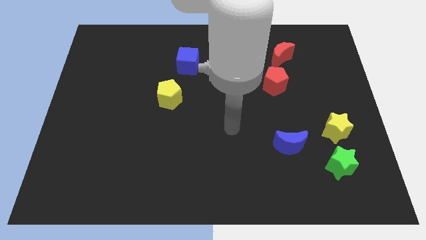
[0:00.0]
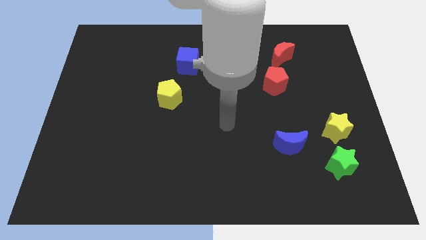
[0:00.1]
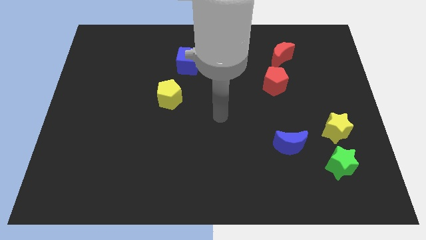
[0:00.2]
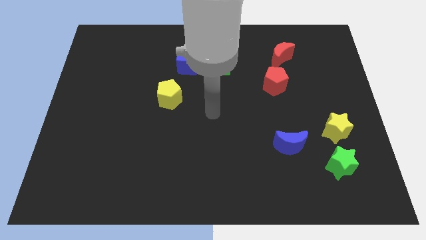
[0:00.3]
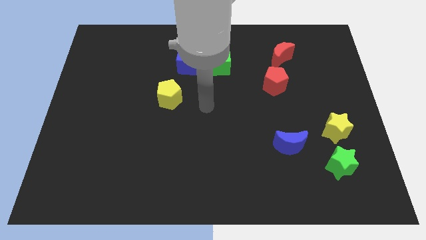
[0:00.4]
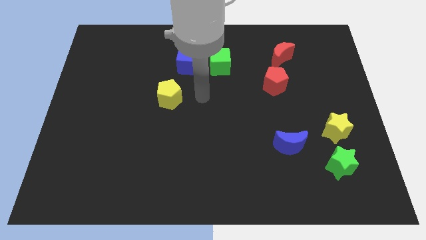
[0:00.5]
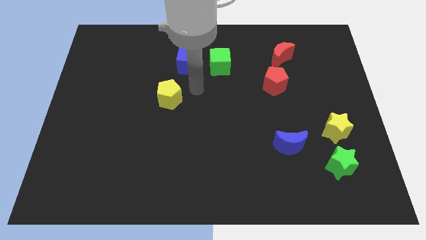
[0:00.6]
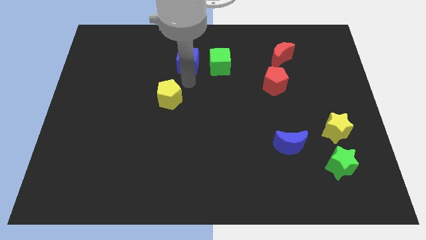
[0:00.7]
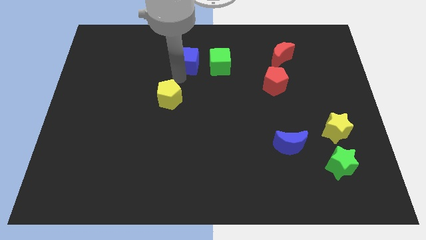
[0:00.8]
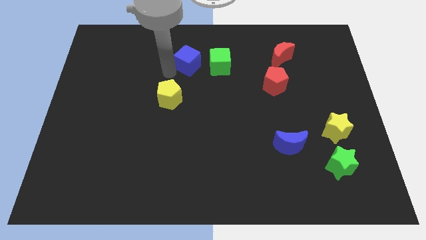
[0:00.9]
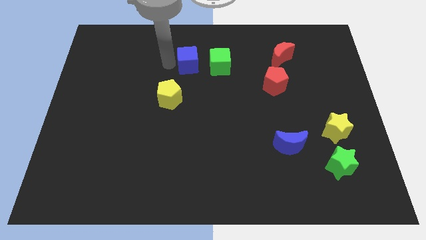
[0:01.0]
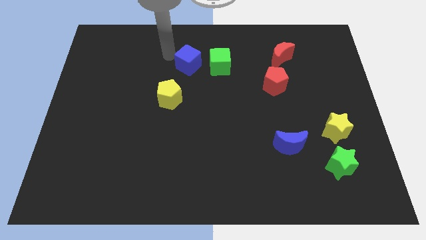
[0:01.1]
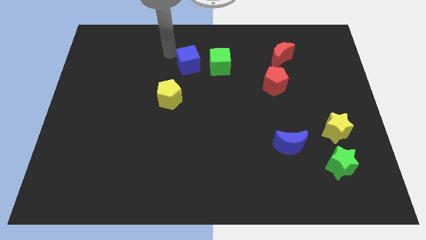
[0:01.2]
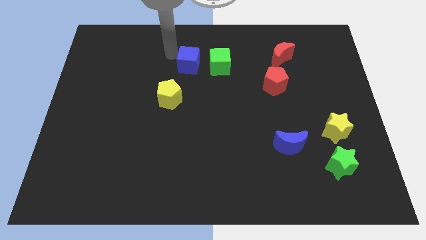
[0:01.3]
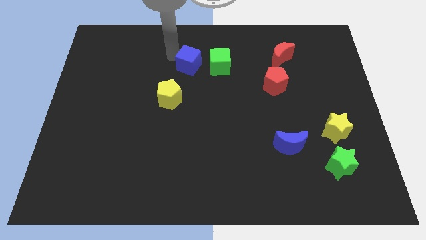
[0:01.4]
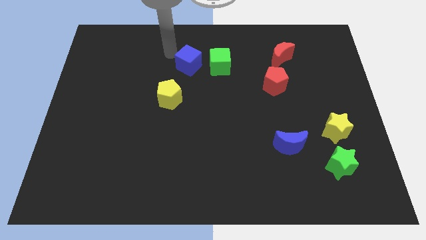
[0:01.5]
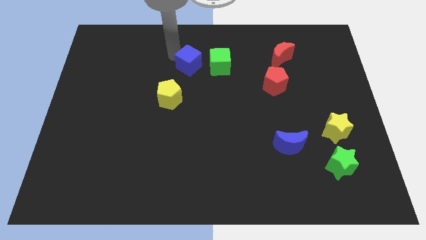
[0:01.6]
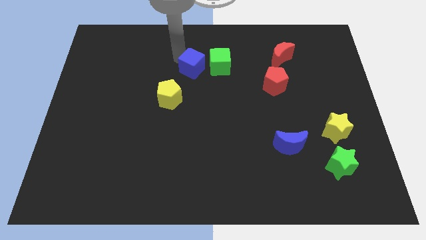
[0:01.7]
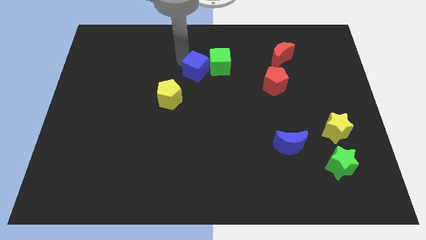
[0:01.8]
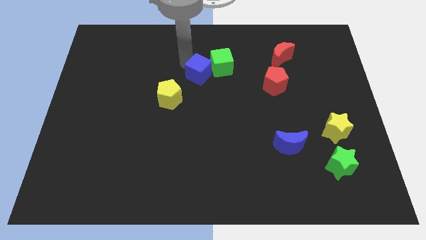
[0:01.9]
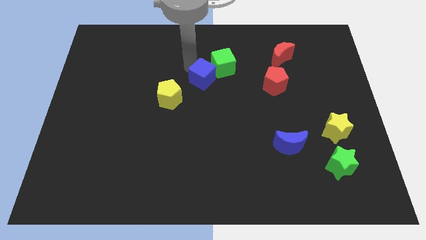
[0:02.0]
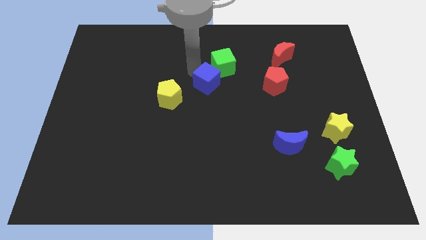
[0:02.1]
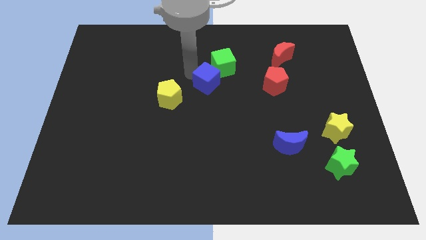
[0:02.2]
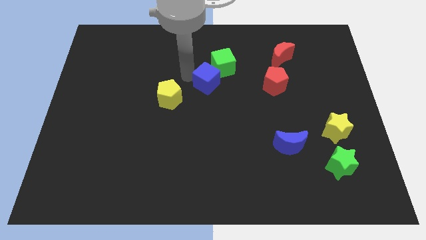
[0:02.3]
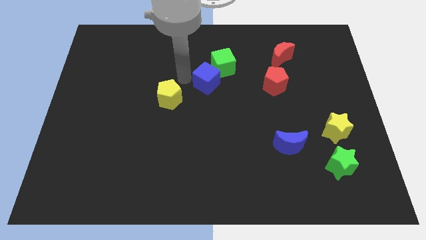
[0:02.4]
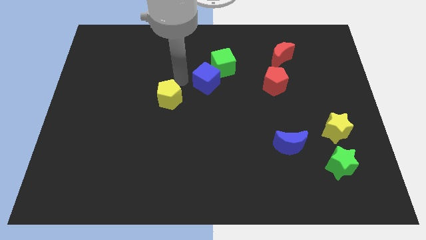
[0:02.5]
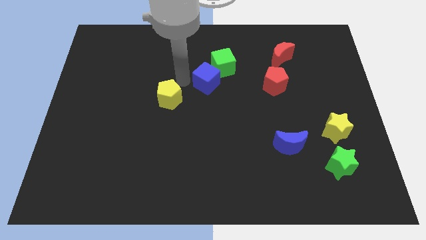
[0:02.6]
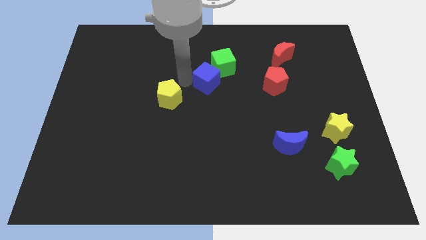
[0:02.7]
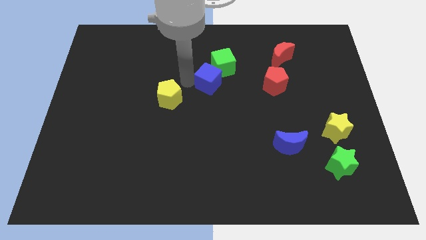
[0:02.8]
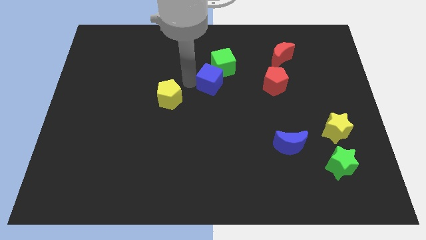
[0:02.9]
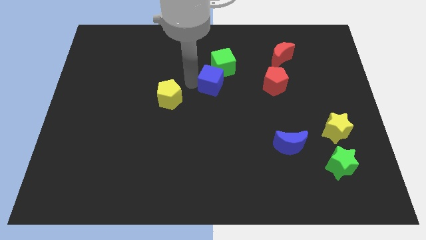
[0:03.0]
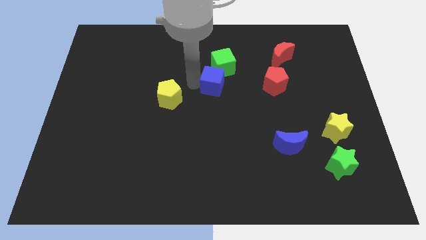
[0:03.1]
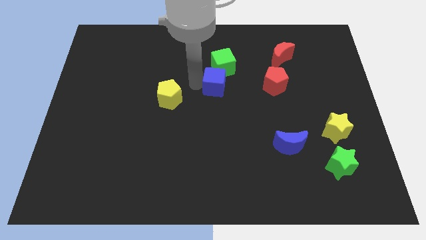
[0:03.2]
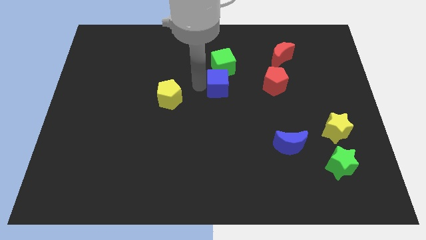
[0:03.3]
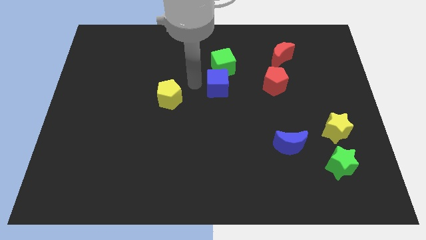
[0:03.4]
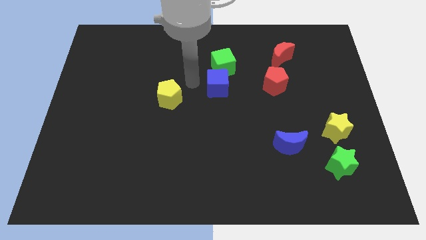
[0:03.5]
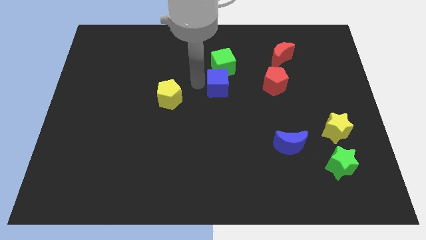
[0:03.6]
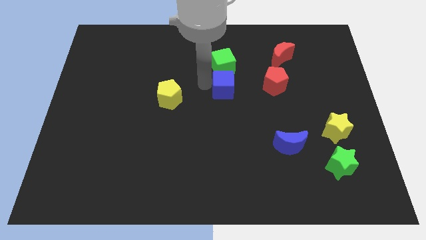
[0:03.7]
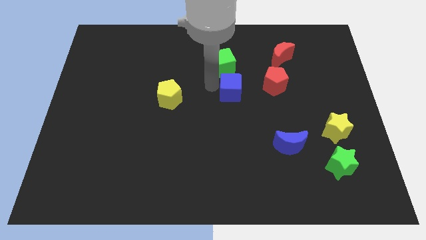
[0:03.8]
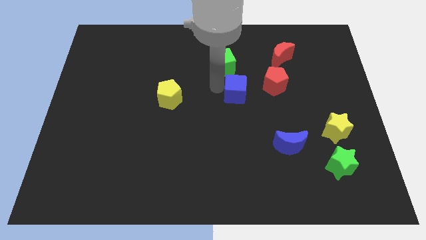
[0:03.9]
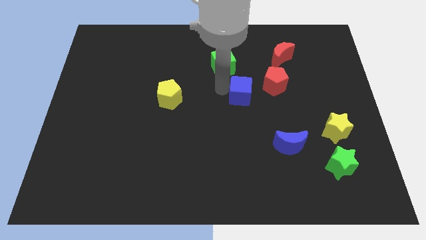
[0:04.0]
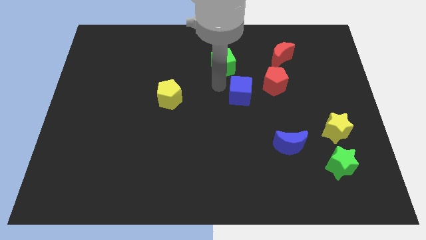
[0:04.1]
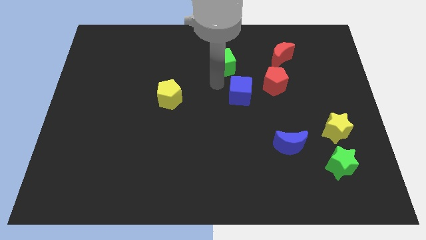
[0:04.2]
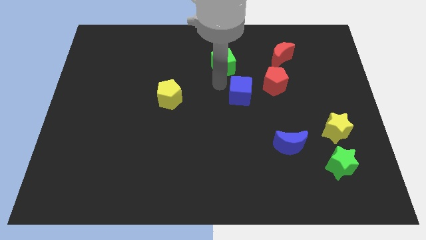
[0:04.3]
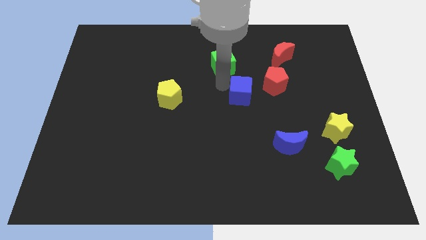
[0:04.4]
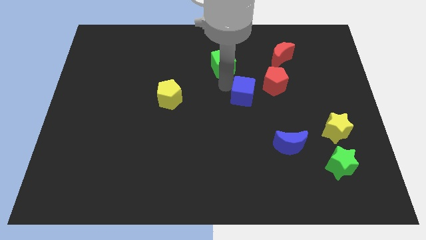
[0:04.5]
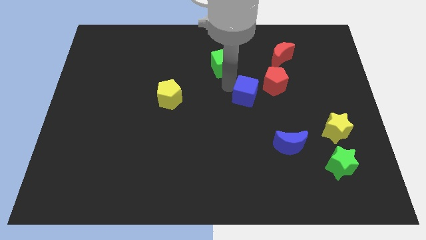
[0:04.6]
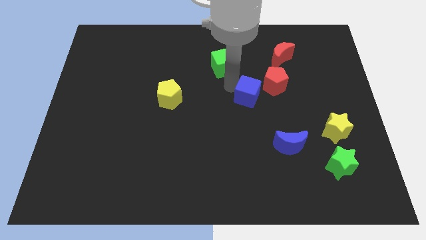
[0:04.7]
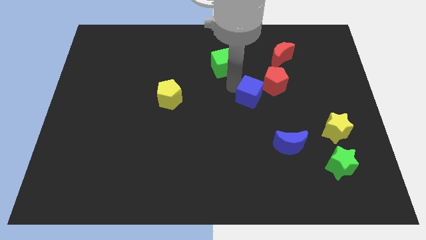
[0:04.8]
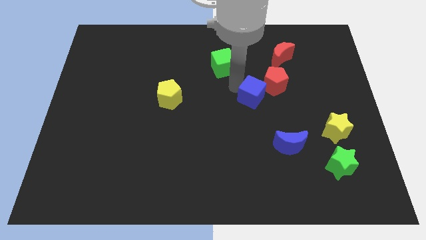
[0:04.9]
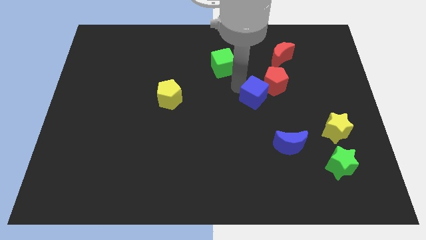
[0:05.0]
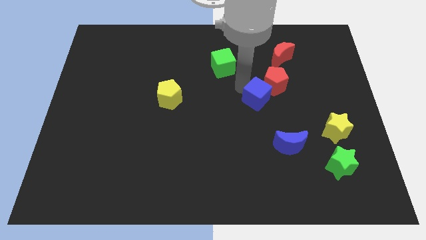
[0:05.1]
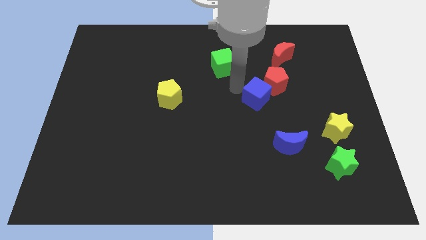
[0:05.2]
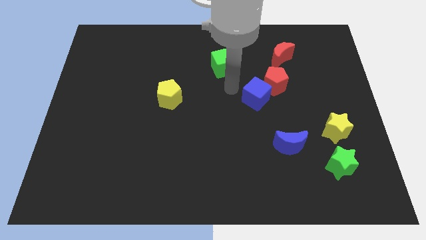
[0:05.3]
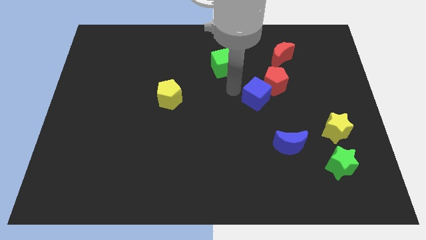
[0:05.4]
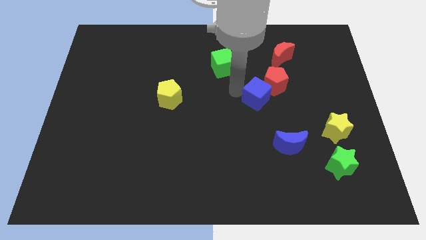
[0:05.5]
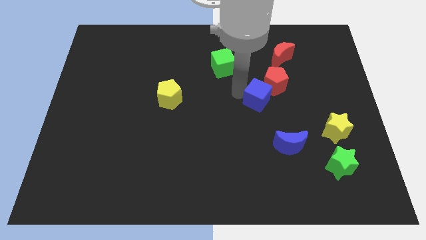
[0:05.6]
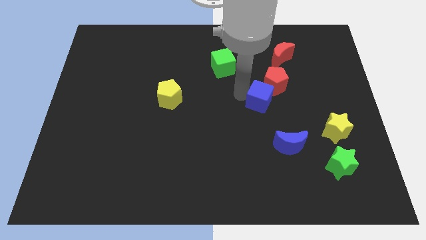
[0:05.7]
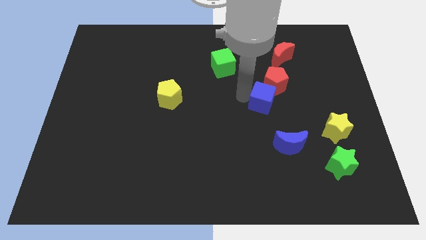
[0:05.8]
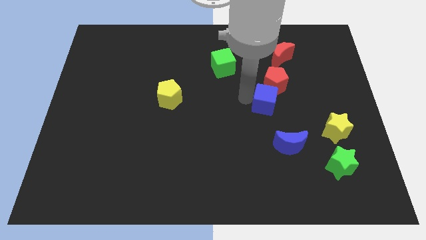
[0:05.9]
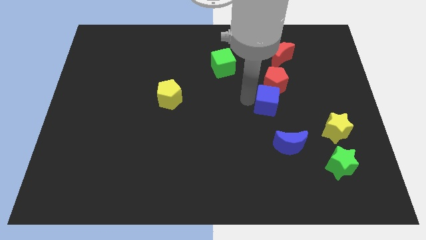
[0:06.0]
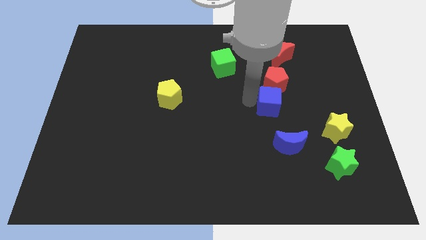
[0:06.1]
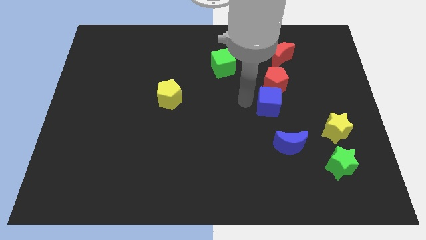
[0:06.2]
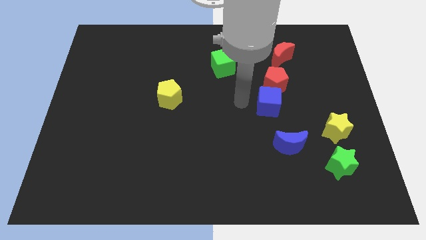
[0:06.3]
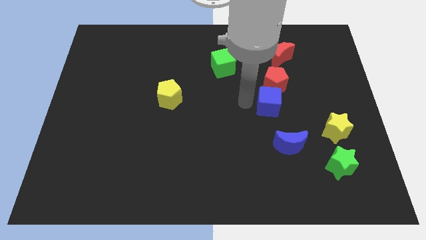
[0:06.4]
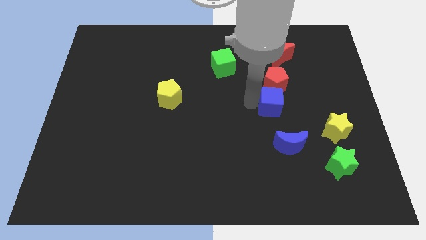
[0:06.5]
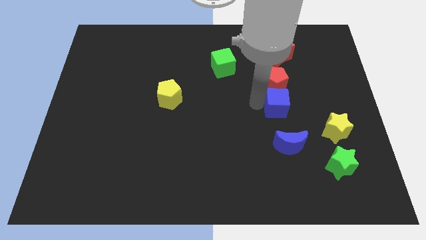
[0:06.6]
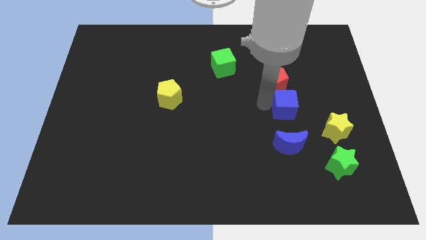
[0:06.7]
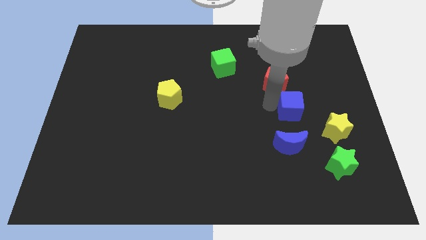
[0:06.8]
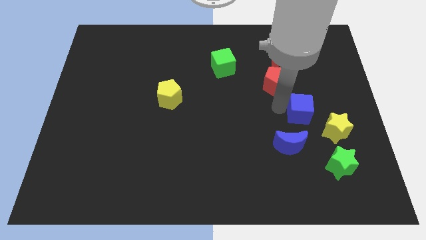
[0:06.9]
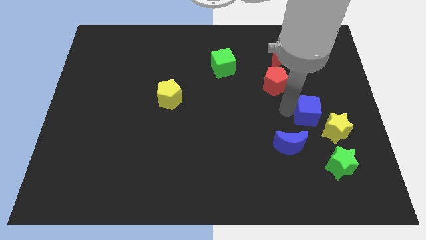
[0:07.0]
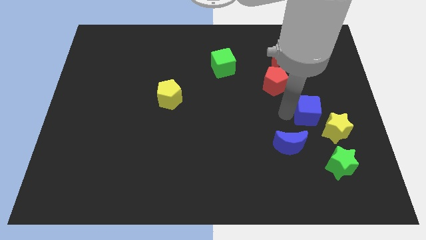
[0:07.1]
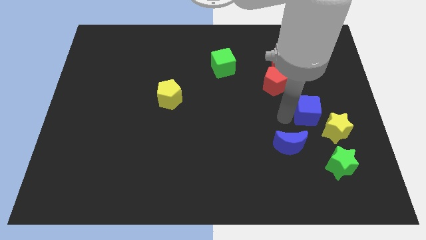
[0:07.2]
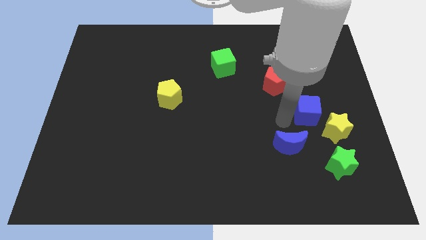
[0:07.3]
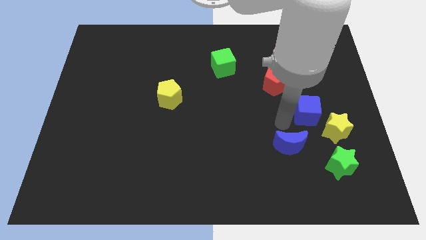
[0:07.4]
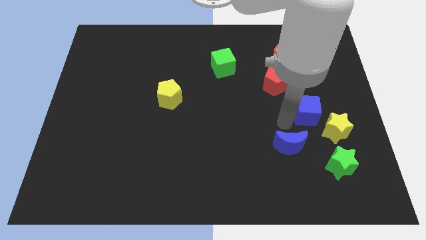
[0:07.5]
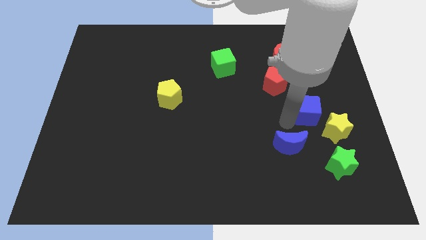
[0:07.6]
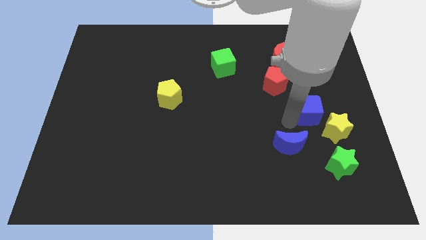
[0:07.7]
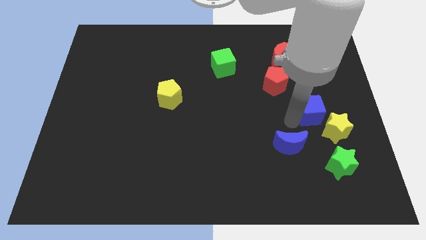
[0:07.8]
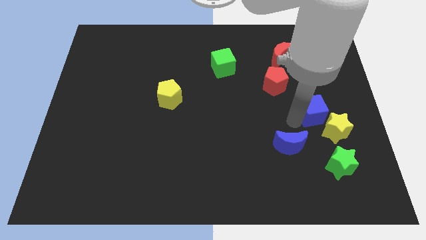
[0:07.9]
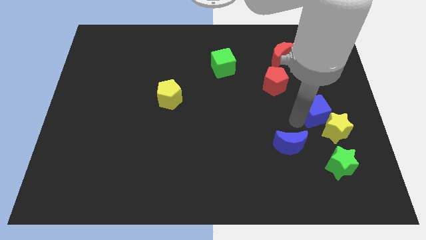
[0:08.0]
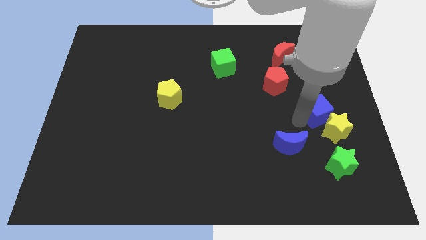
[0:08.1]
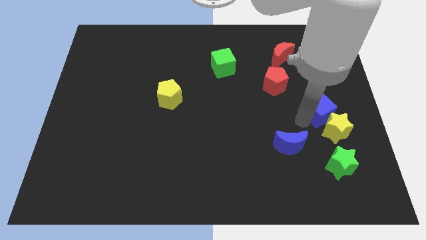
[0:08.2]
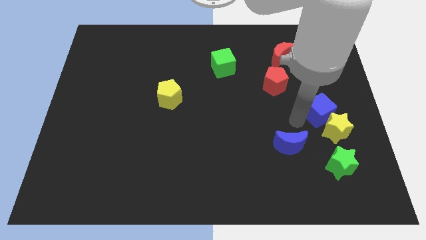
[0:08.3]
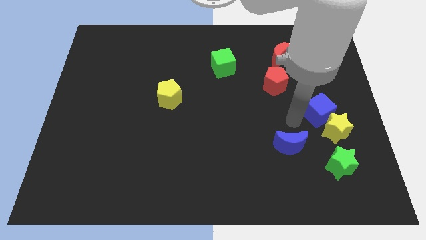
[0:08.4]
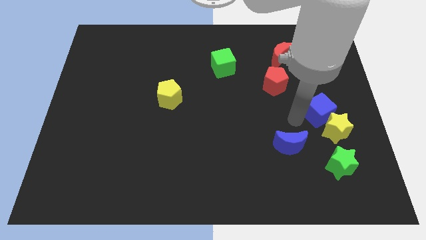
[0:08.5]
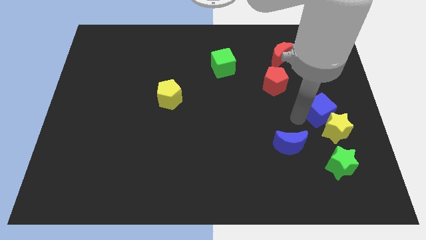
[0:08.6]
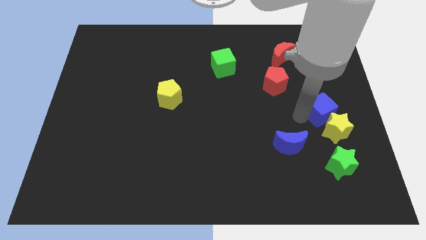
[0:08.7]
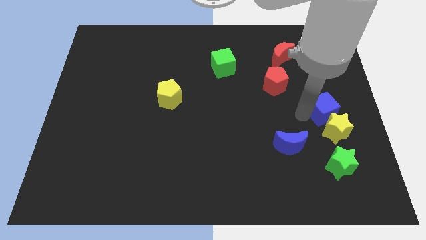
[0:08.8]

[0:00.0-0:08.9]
push the blue cube to the right side of the board
